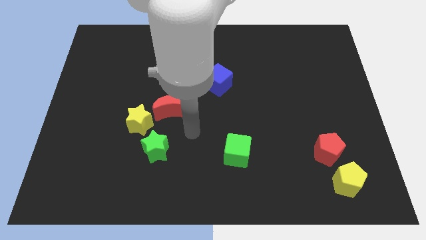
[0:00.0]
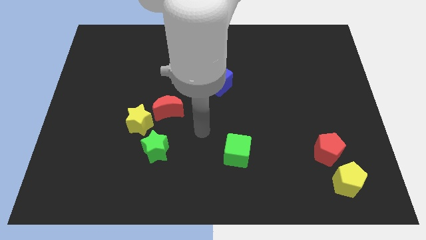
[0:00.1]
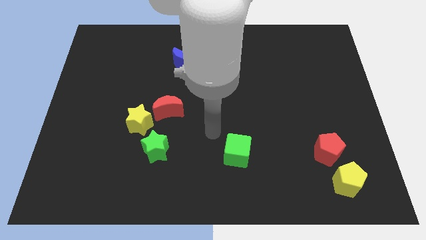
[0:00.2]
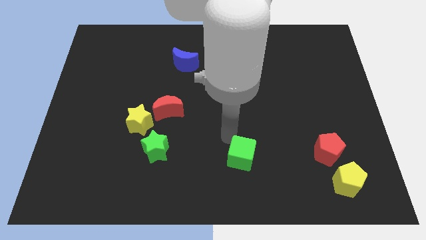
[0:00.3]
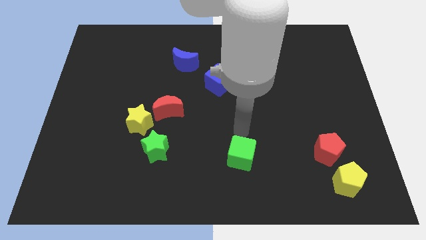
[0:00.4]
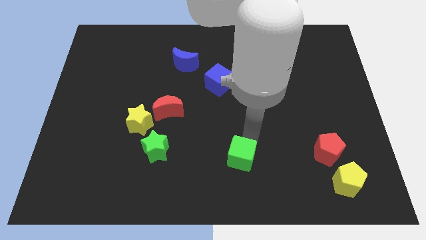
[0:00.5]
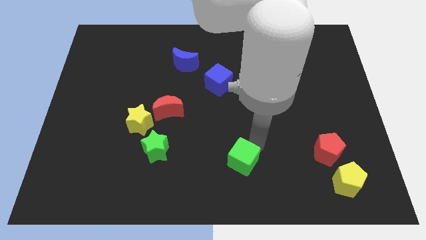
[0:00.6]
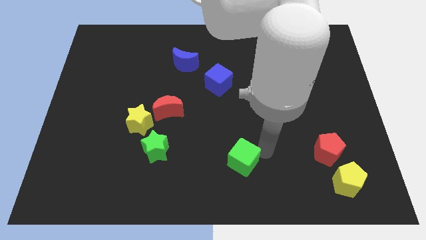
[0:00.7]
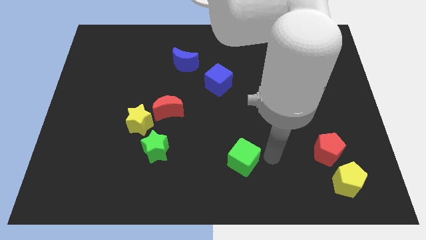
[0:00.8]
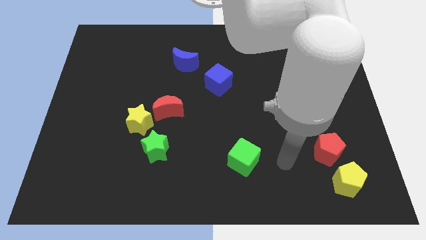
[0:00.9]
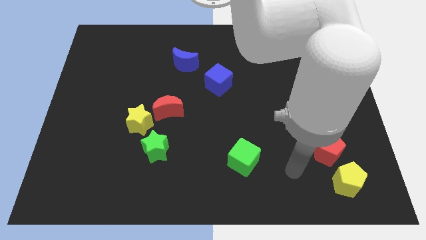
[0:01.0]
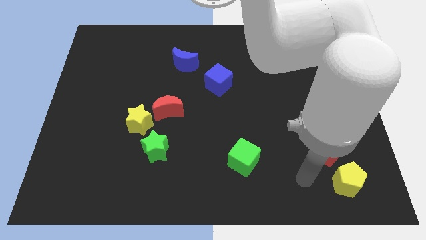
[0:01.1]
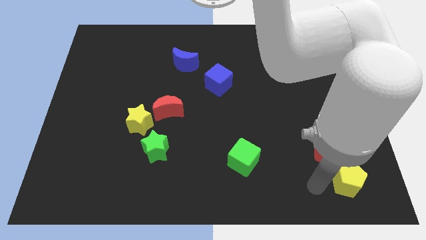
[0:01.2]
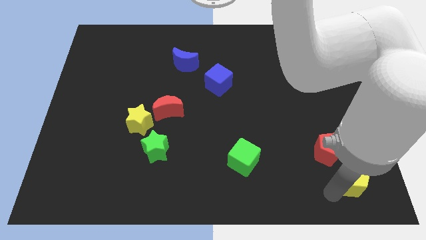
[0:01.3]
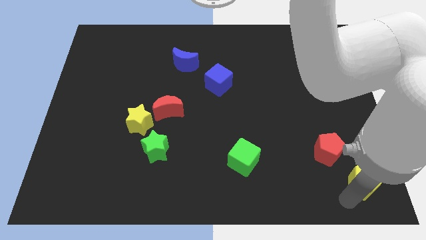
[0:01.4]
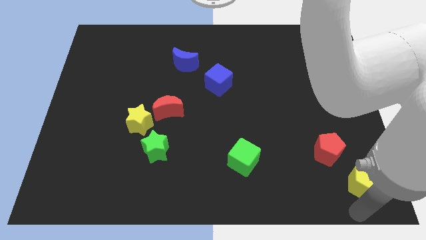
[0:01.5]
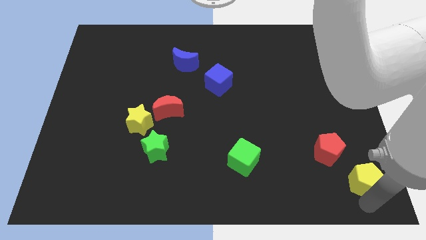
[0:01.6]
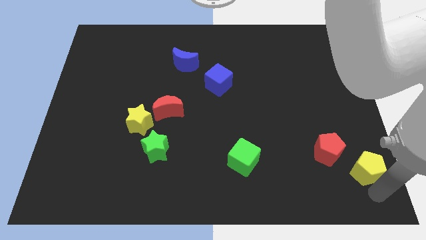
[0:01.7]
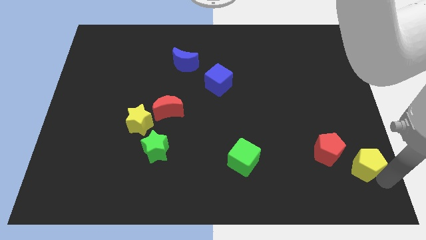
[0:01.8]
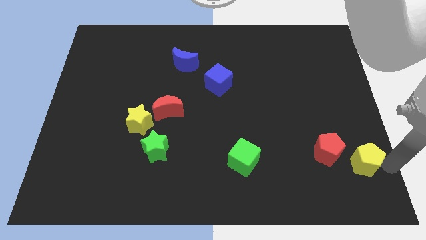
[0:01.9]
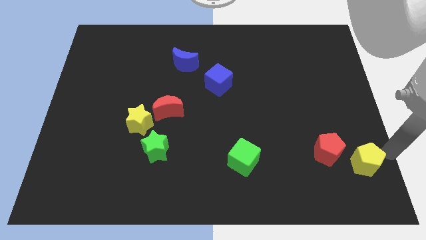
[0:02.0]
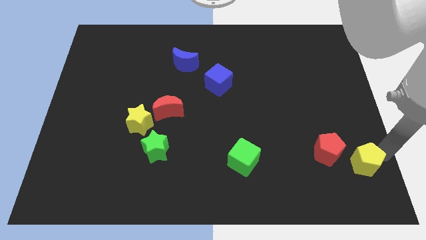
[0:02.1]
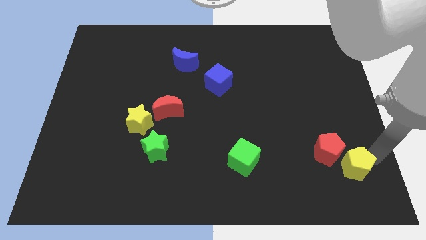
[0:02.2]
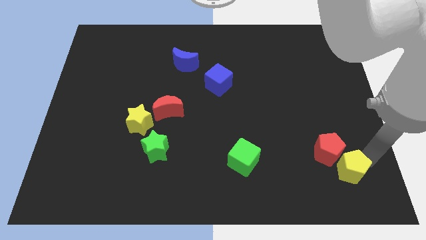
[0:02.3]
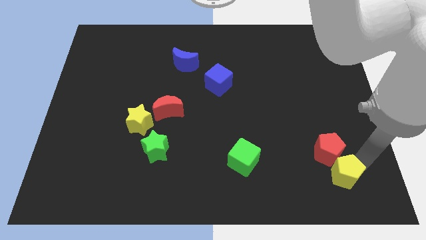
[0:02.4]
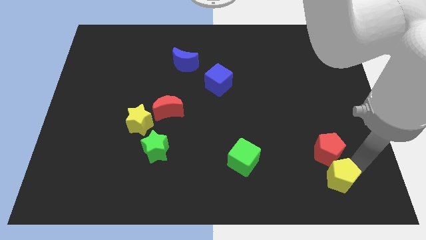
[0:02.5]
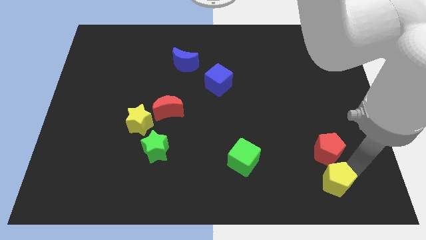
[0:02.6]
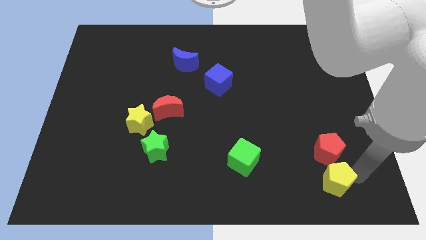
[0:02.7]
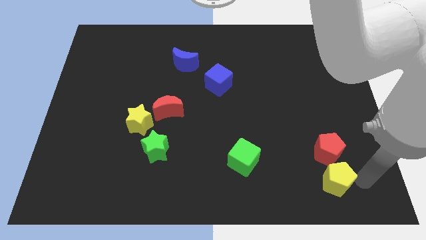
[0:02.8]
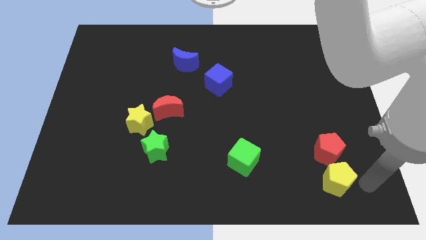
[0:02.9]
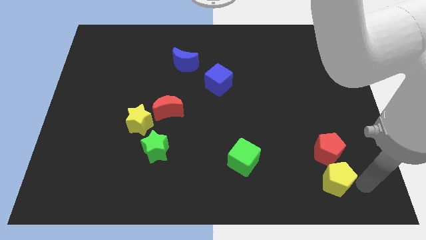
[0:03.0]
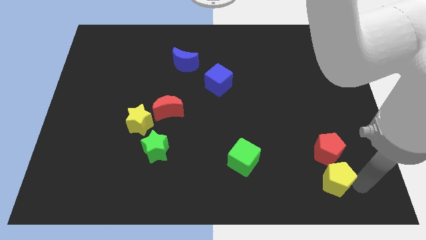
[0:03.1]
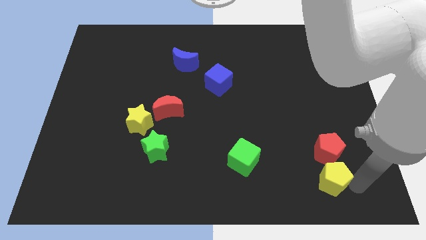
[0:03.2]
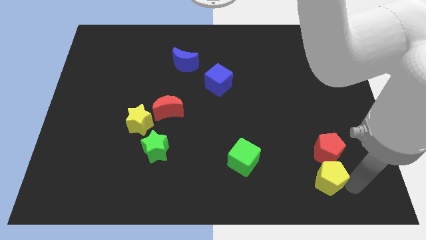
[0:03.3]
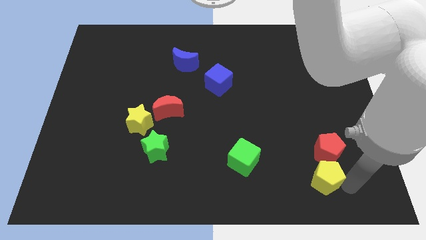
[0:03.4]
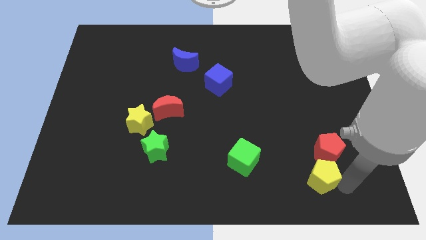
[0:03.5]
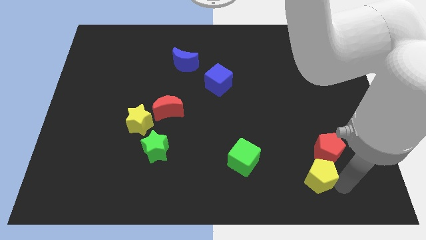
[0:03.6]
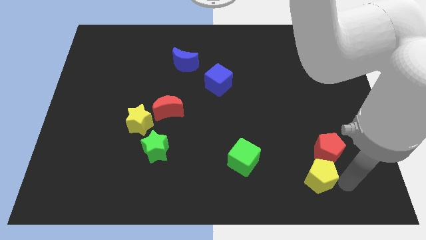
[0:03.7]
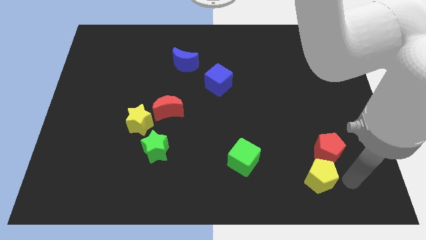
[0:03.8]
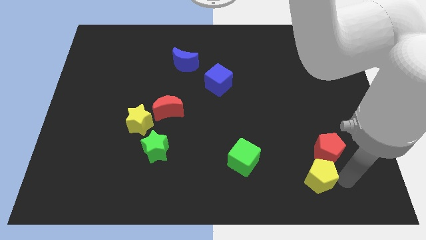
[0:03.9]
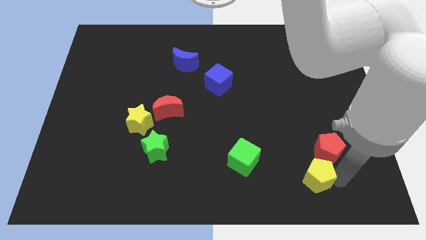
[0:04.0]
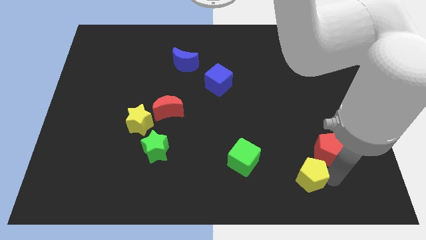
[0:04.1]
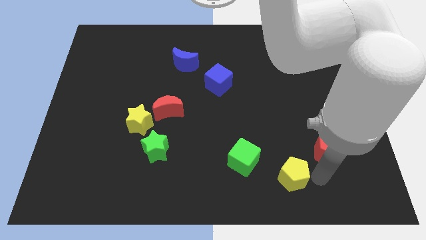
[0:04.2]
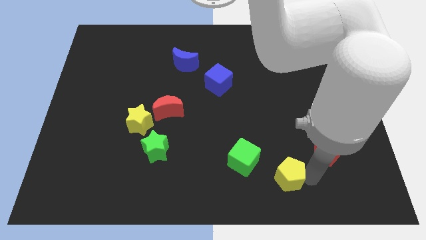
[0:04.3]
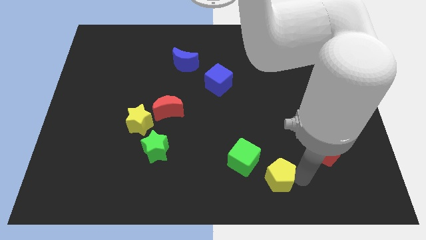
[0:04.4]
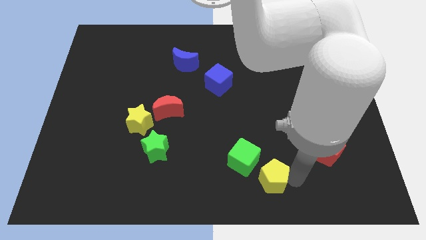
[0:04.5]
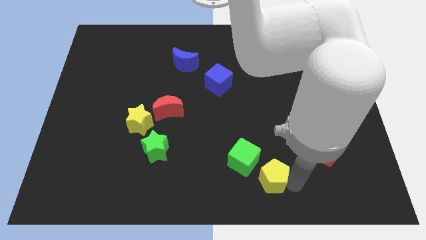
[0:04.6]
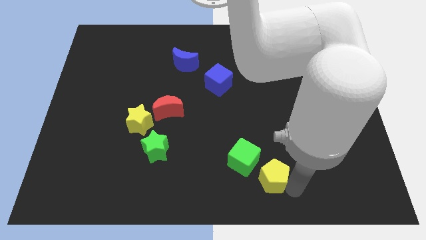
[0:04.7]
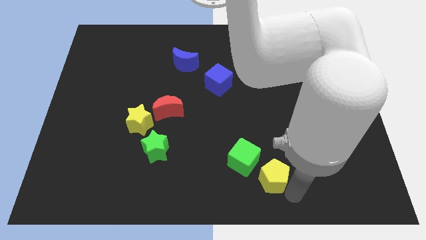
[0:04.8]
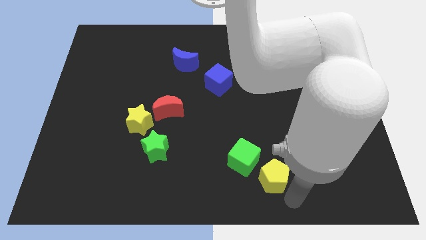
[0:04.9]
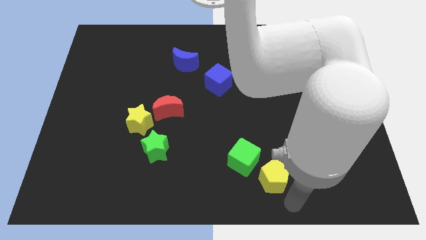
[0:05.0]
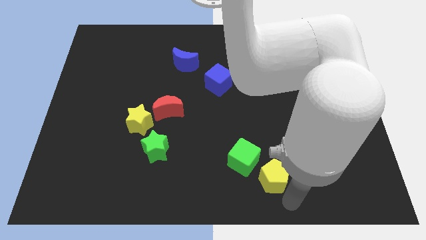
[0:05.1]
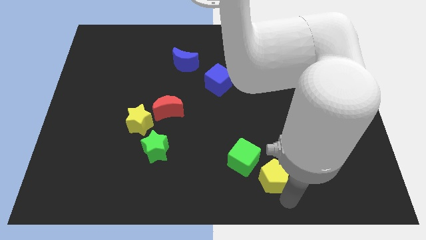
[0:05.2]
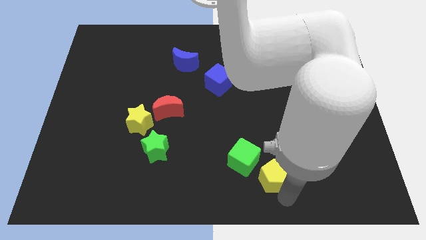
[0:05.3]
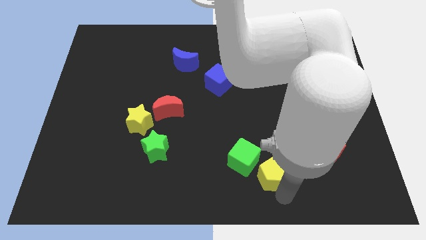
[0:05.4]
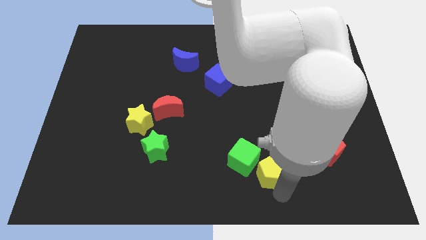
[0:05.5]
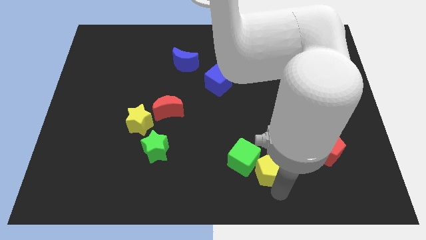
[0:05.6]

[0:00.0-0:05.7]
push the yellow pentagon close to the green cube

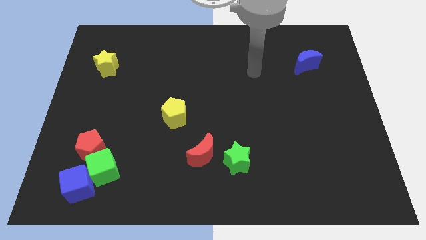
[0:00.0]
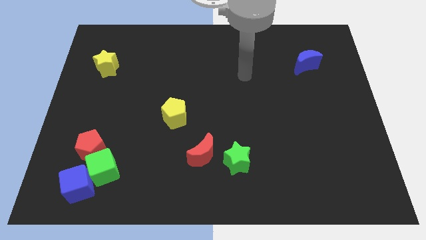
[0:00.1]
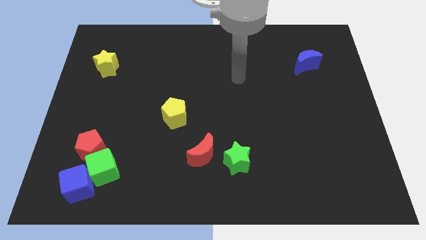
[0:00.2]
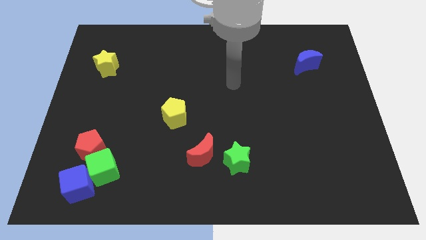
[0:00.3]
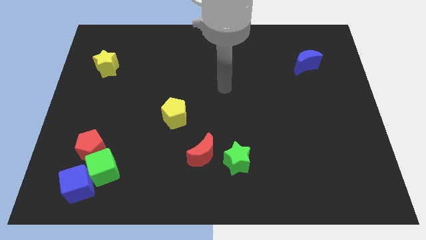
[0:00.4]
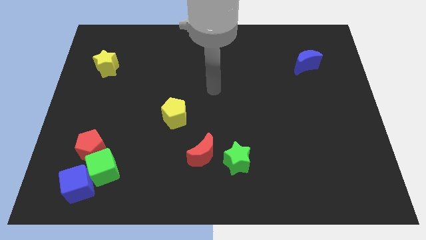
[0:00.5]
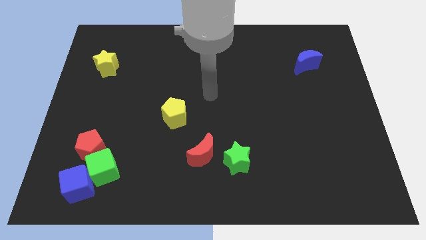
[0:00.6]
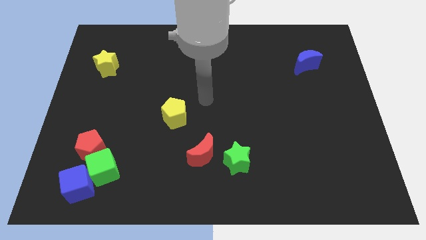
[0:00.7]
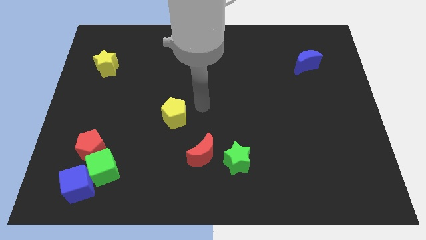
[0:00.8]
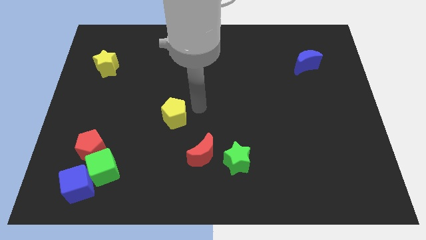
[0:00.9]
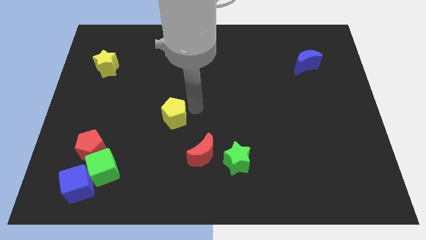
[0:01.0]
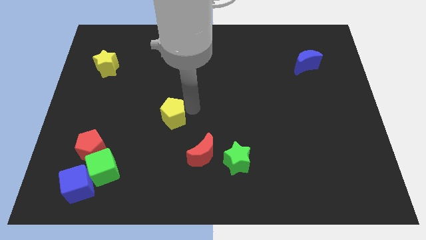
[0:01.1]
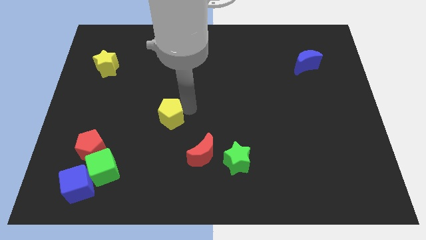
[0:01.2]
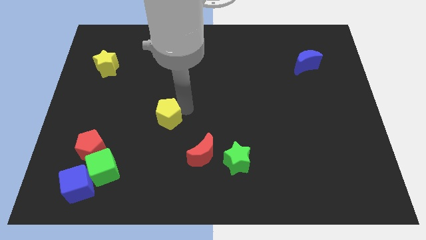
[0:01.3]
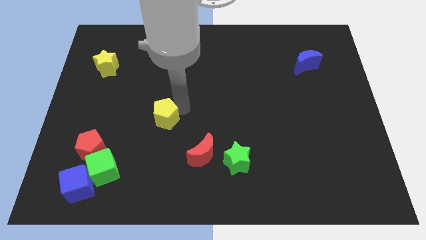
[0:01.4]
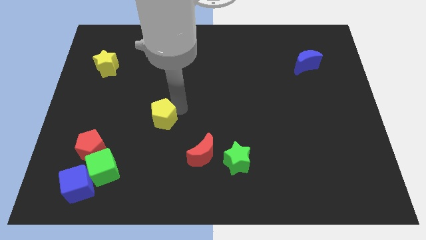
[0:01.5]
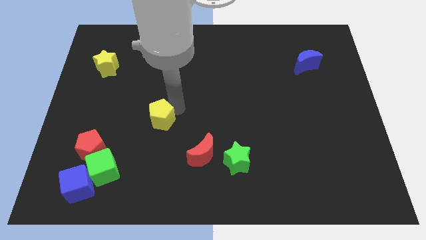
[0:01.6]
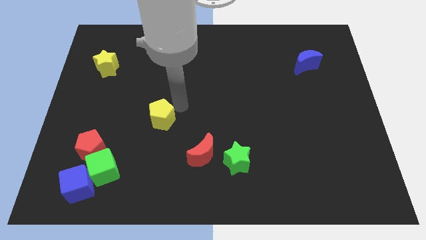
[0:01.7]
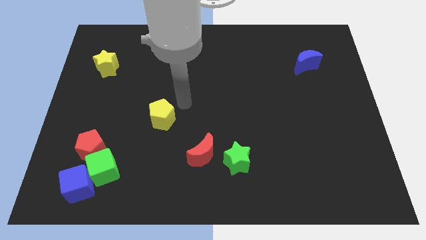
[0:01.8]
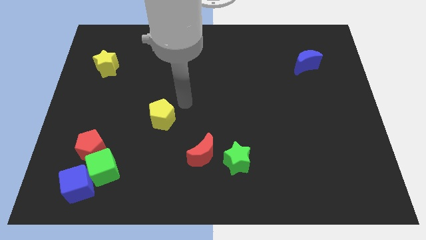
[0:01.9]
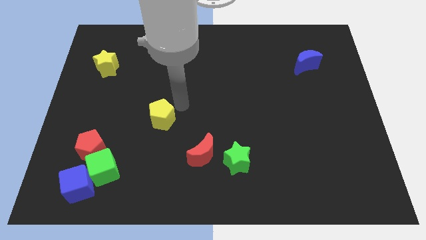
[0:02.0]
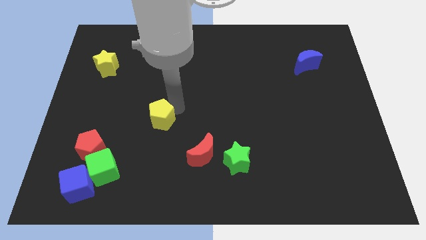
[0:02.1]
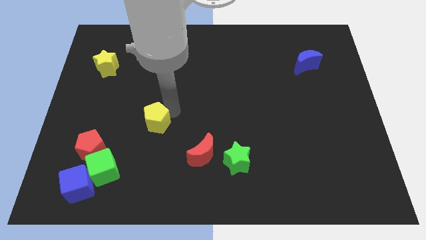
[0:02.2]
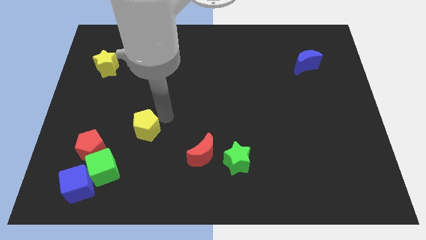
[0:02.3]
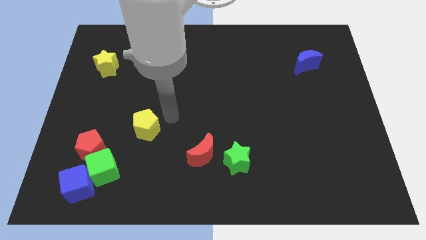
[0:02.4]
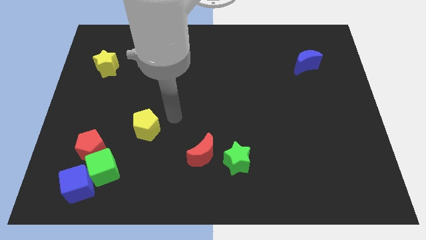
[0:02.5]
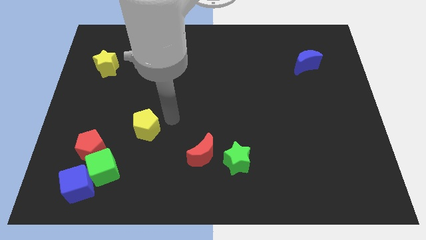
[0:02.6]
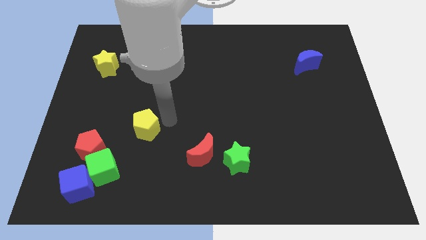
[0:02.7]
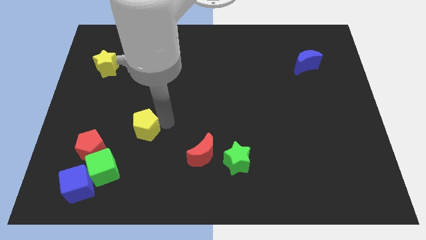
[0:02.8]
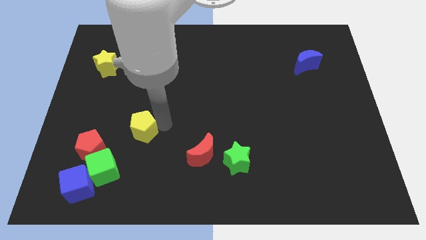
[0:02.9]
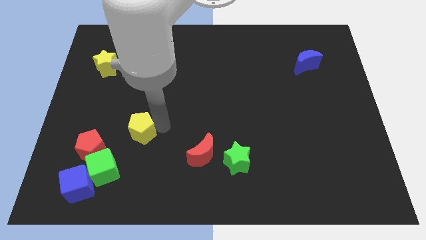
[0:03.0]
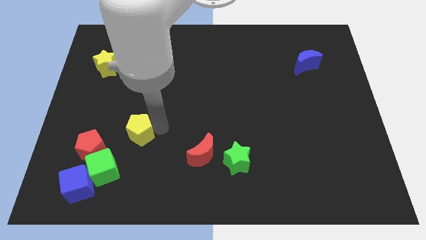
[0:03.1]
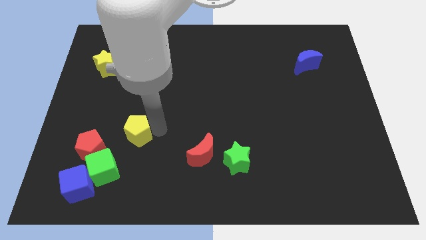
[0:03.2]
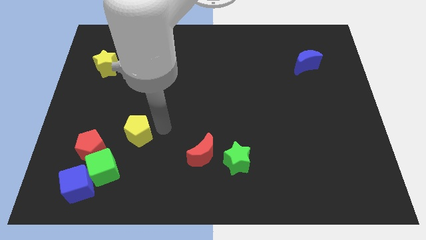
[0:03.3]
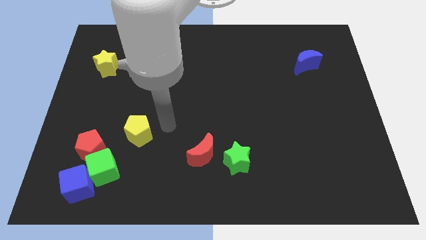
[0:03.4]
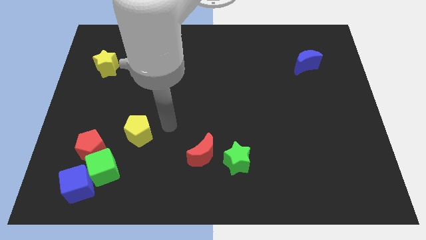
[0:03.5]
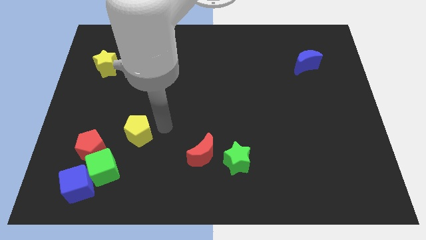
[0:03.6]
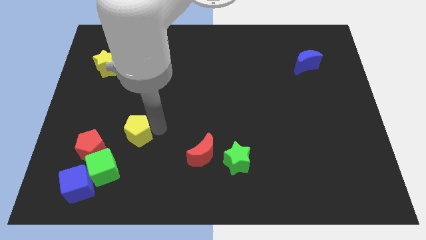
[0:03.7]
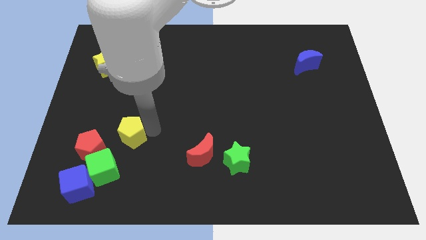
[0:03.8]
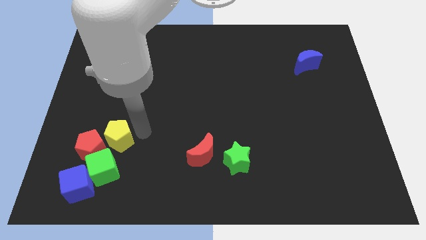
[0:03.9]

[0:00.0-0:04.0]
put the yellow pentagon next to the red pentagon
